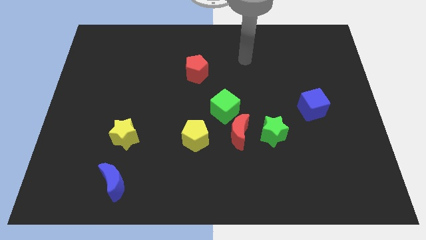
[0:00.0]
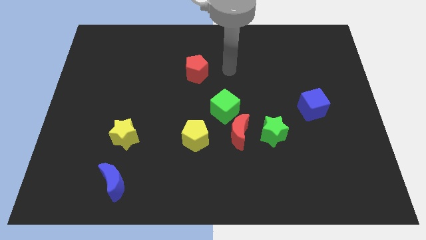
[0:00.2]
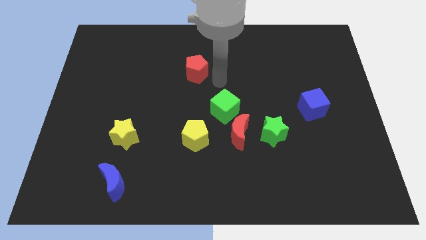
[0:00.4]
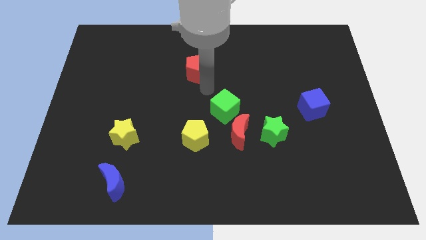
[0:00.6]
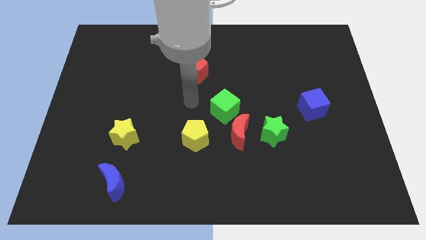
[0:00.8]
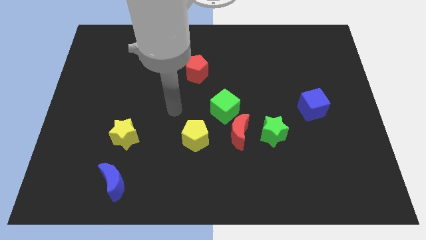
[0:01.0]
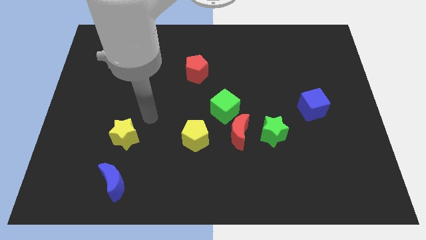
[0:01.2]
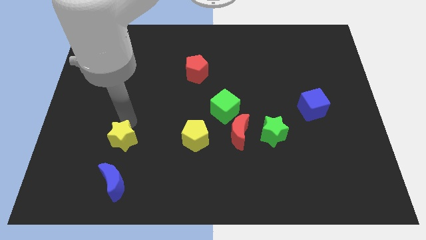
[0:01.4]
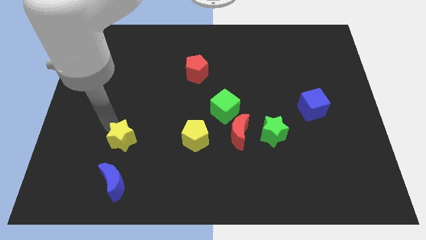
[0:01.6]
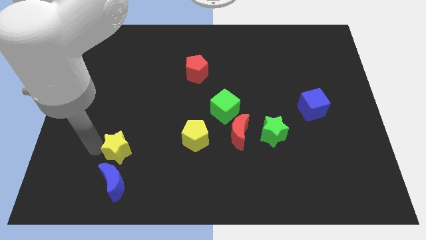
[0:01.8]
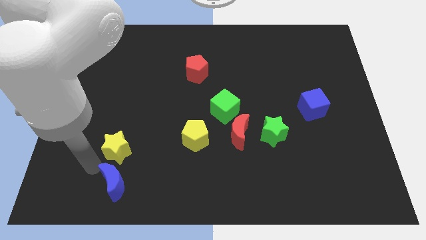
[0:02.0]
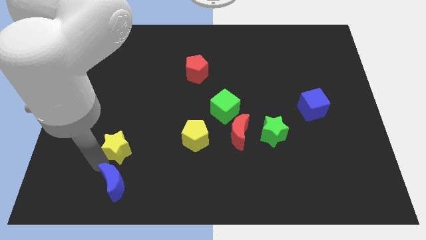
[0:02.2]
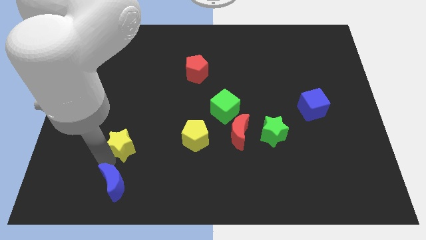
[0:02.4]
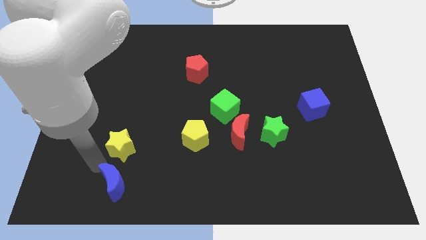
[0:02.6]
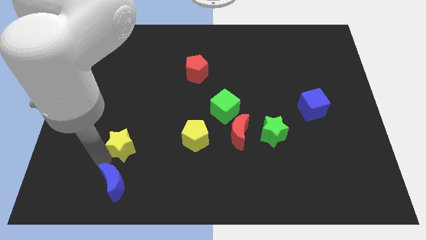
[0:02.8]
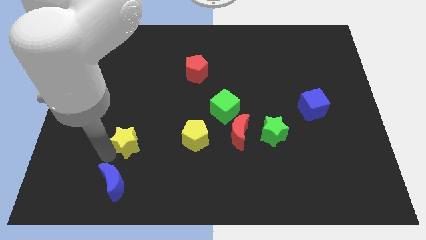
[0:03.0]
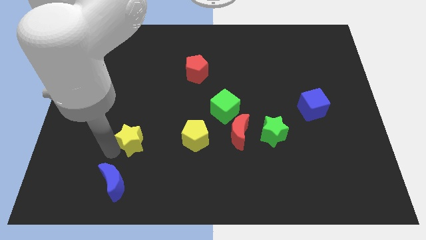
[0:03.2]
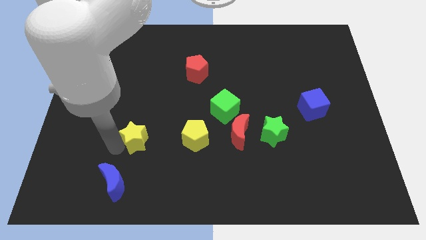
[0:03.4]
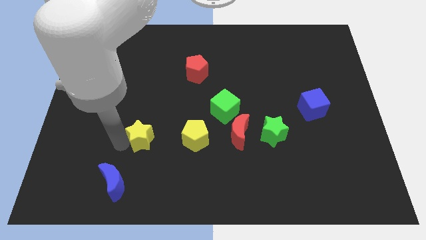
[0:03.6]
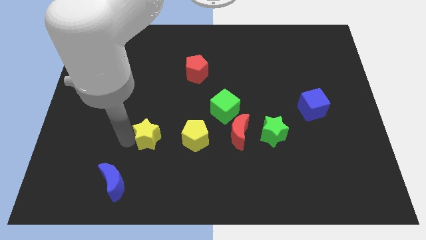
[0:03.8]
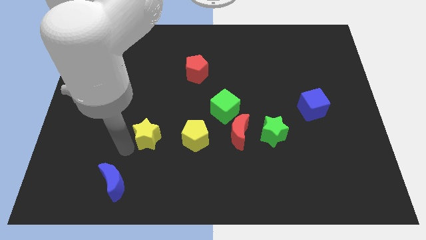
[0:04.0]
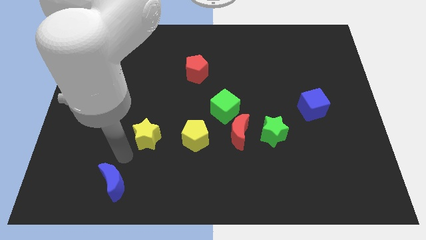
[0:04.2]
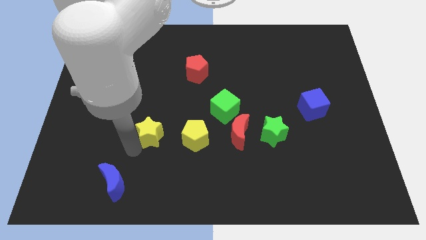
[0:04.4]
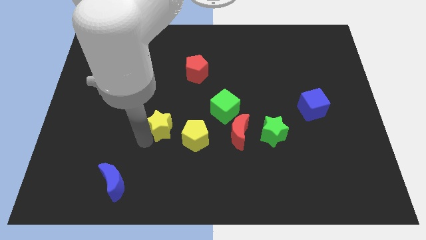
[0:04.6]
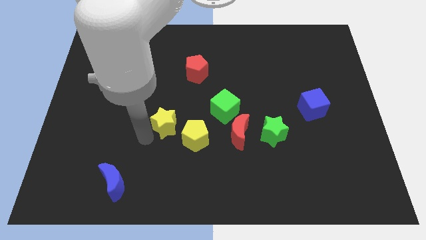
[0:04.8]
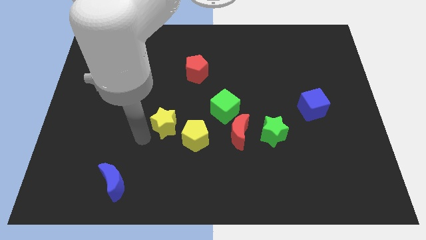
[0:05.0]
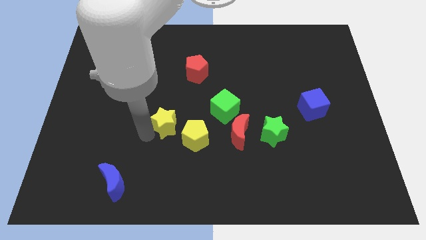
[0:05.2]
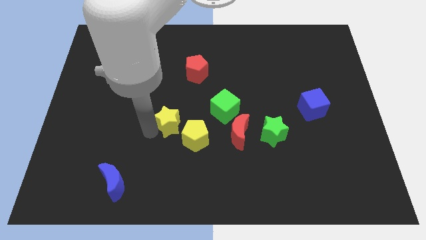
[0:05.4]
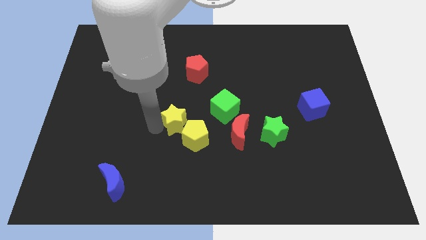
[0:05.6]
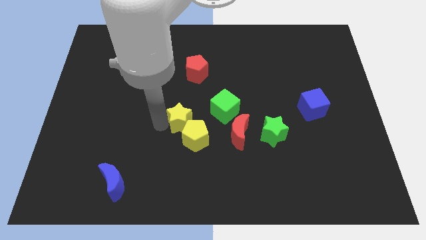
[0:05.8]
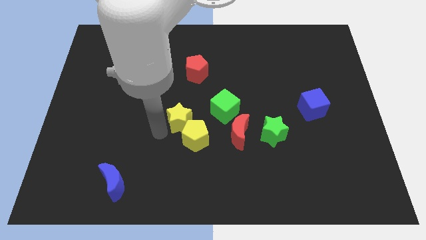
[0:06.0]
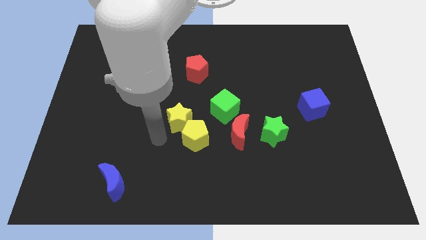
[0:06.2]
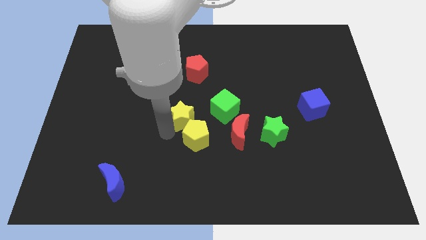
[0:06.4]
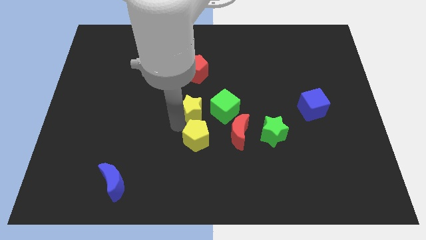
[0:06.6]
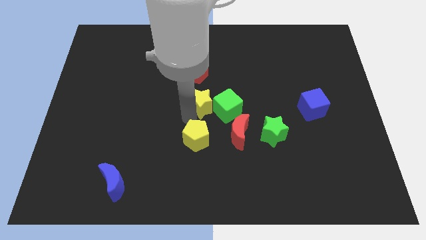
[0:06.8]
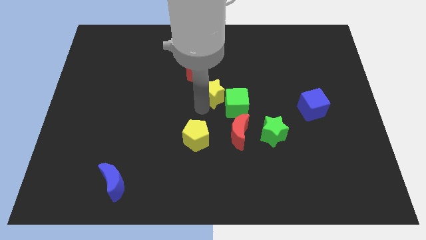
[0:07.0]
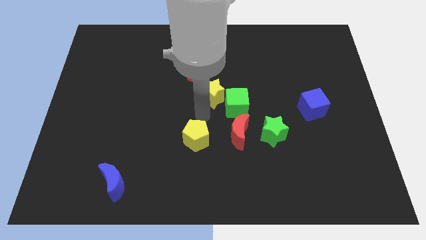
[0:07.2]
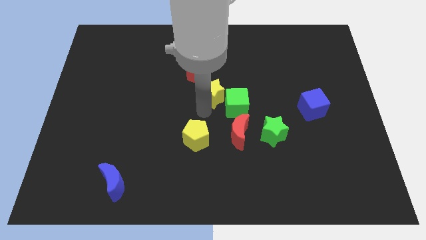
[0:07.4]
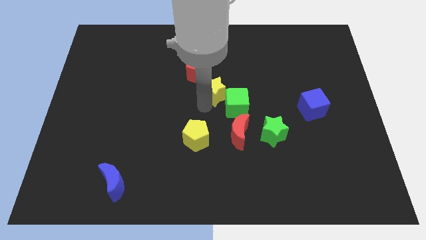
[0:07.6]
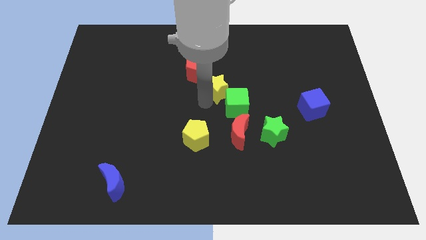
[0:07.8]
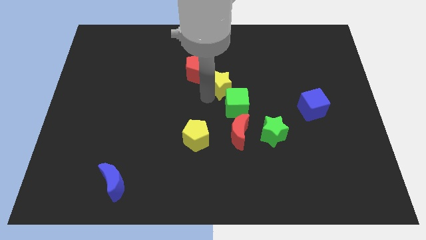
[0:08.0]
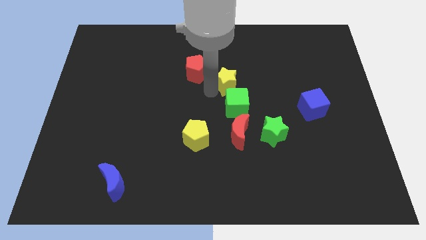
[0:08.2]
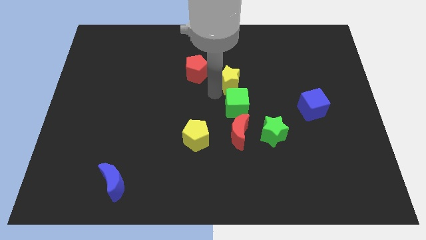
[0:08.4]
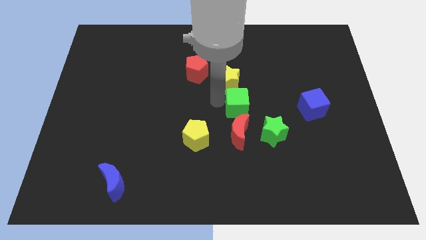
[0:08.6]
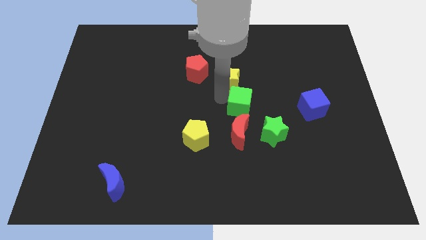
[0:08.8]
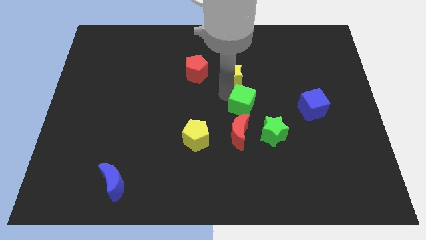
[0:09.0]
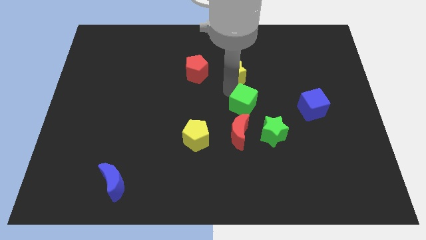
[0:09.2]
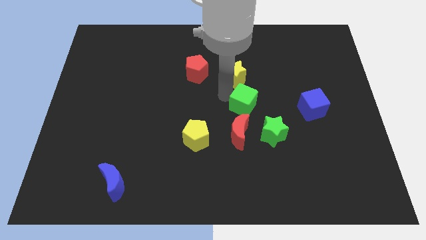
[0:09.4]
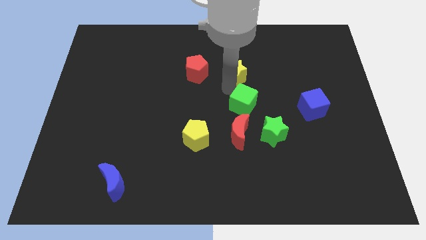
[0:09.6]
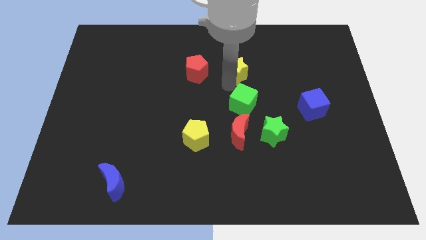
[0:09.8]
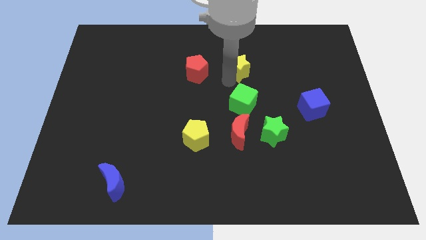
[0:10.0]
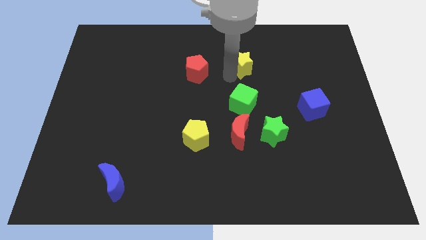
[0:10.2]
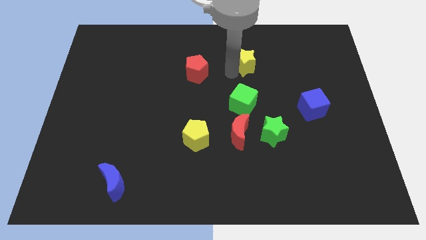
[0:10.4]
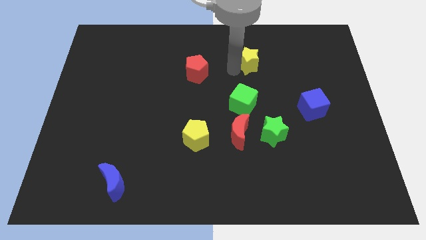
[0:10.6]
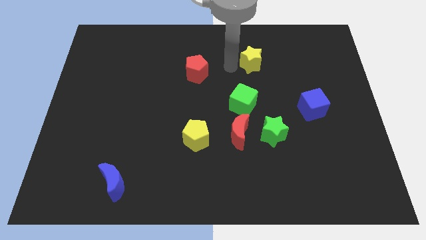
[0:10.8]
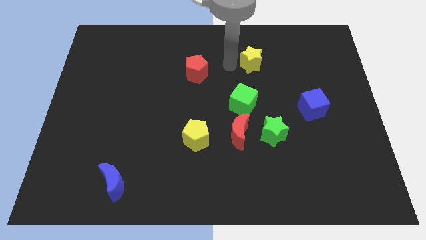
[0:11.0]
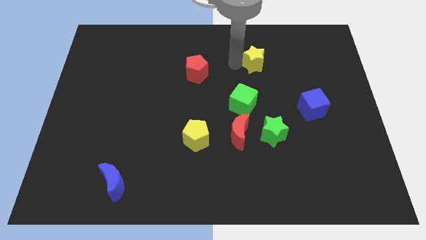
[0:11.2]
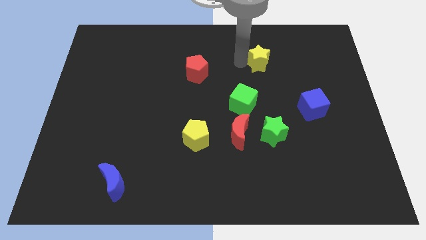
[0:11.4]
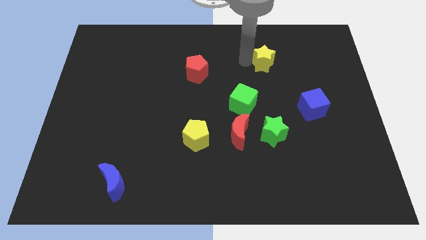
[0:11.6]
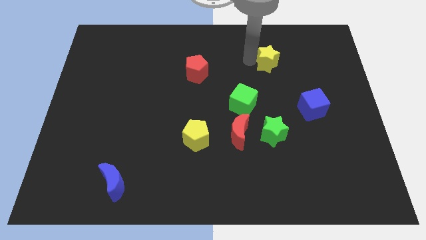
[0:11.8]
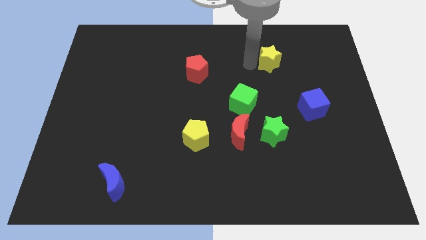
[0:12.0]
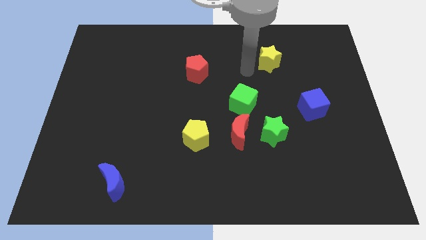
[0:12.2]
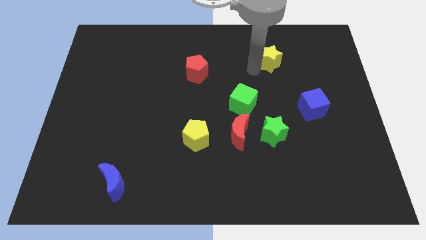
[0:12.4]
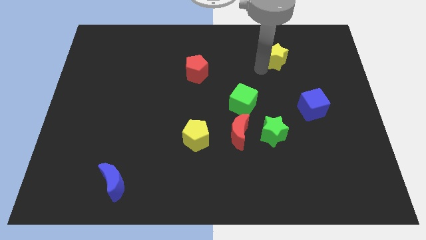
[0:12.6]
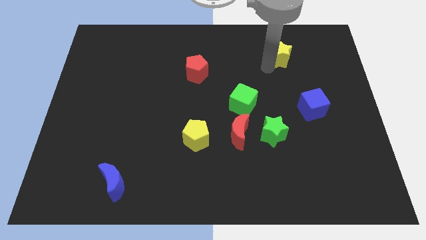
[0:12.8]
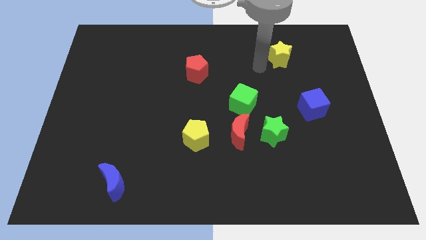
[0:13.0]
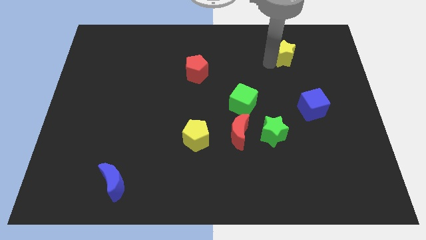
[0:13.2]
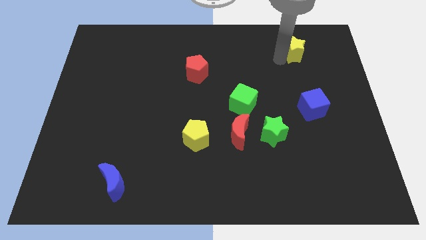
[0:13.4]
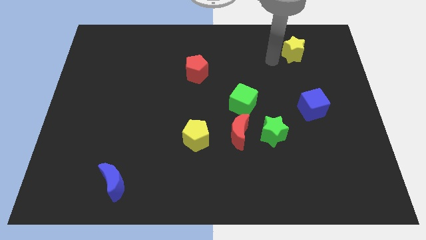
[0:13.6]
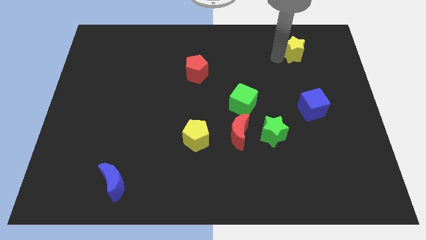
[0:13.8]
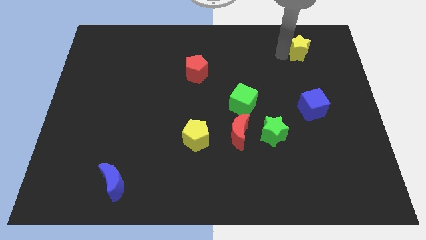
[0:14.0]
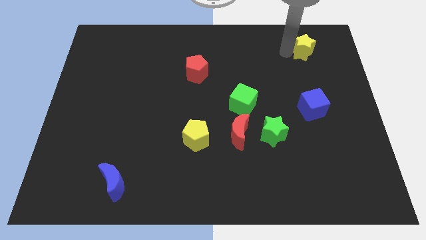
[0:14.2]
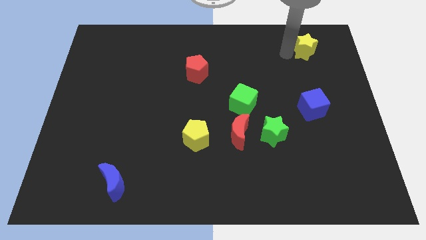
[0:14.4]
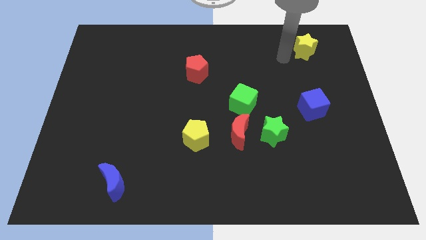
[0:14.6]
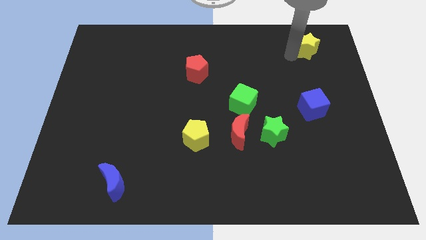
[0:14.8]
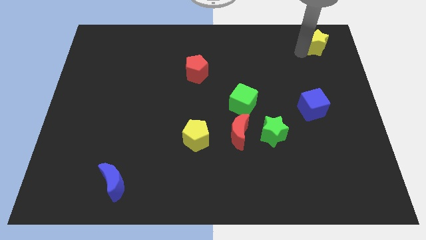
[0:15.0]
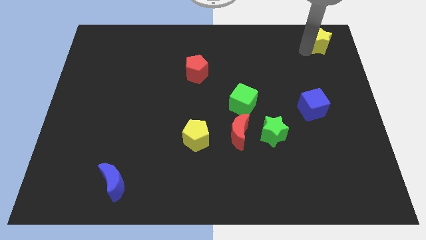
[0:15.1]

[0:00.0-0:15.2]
put the yellow star to the top right
